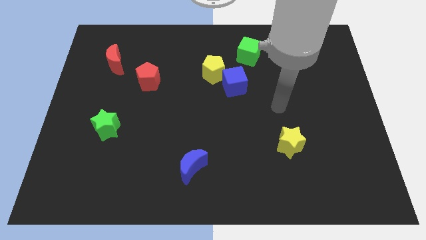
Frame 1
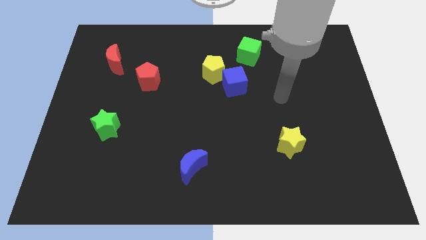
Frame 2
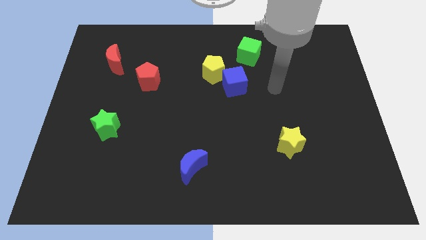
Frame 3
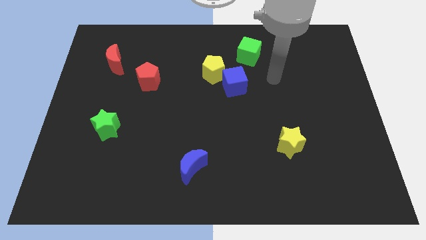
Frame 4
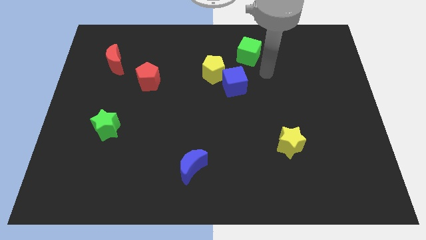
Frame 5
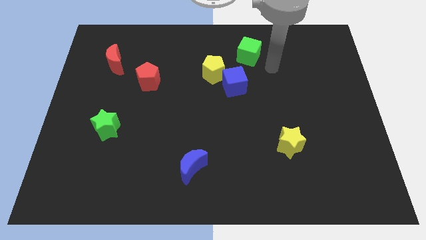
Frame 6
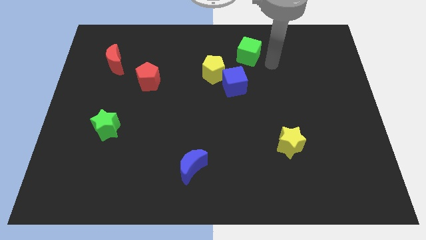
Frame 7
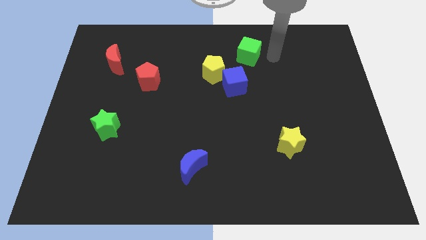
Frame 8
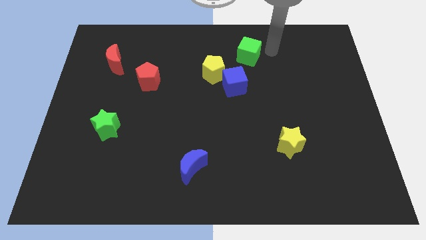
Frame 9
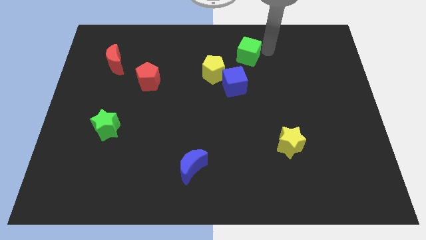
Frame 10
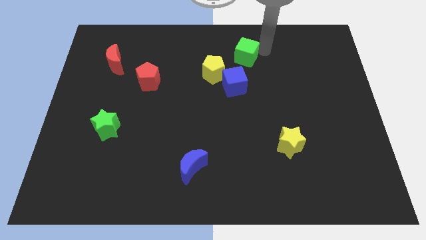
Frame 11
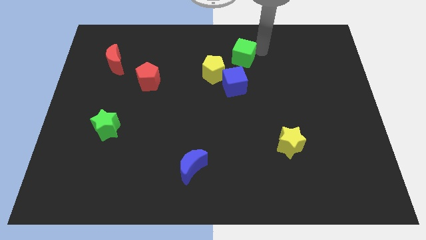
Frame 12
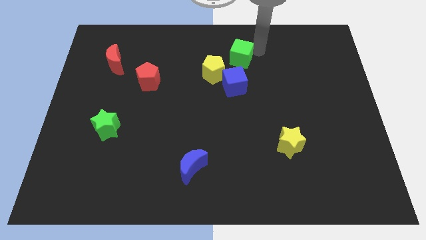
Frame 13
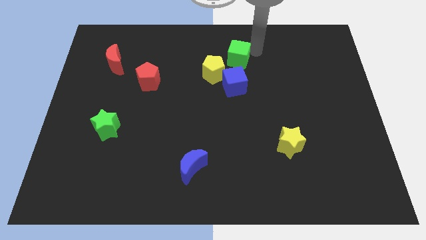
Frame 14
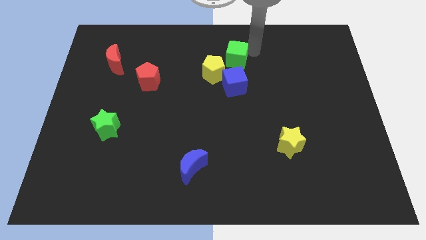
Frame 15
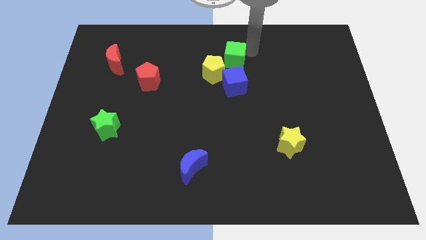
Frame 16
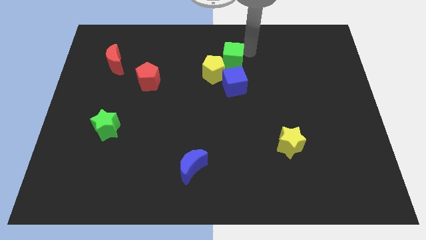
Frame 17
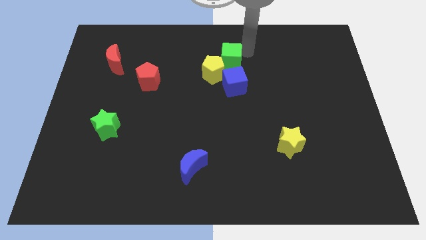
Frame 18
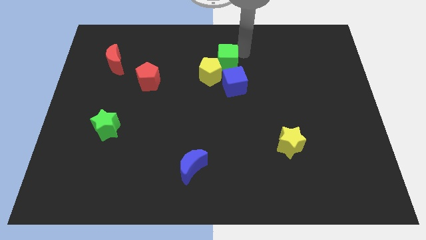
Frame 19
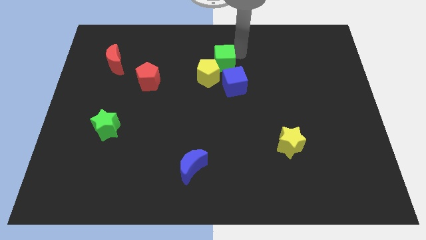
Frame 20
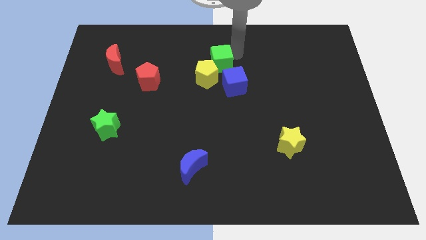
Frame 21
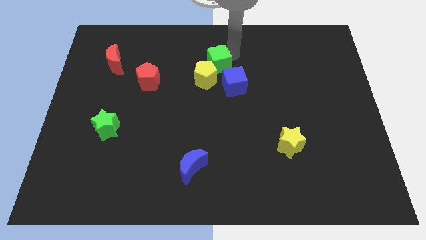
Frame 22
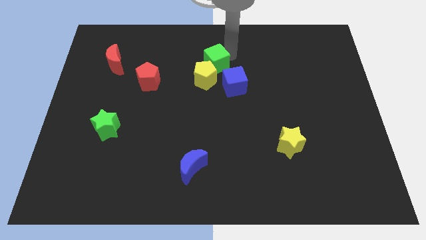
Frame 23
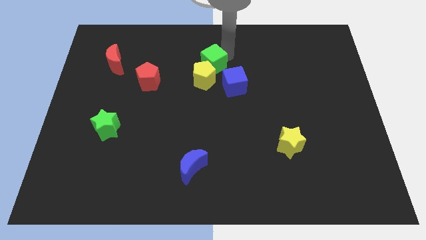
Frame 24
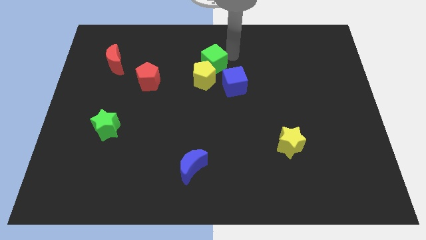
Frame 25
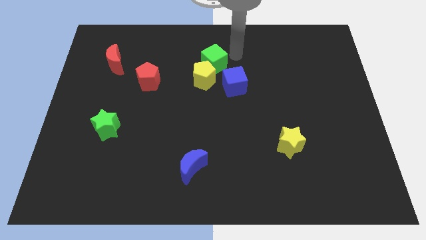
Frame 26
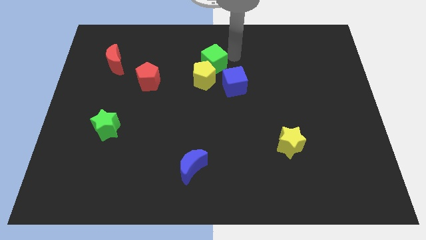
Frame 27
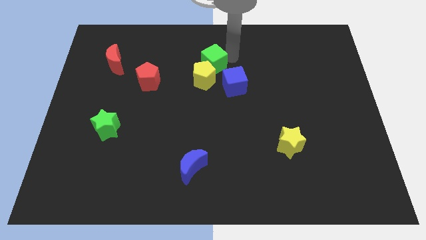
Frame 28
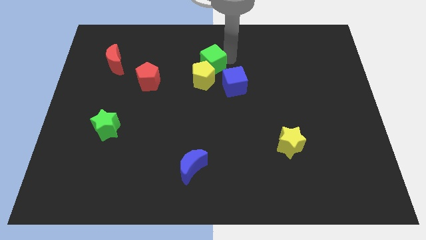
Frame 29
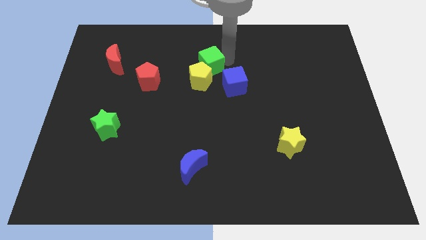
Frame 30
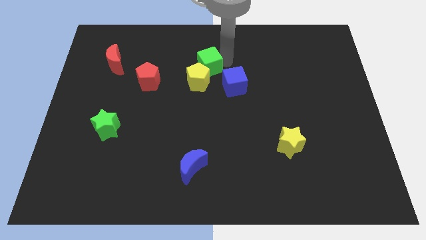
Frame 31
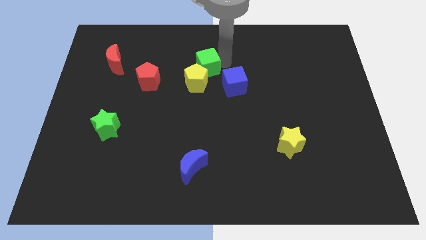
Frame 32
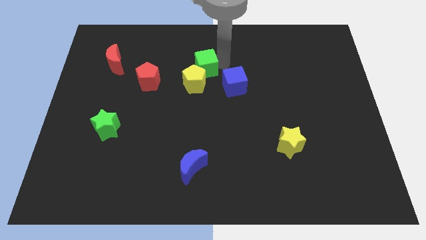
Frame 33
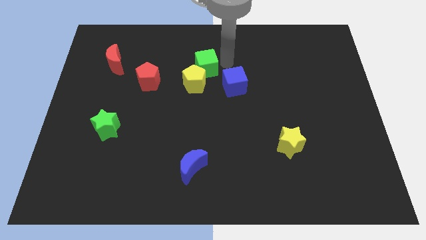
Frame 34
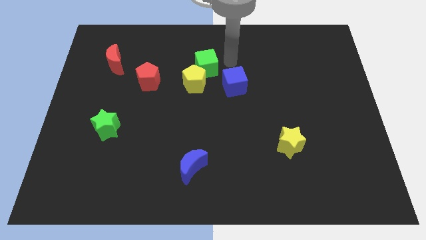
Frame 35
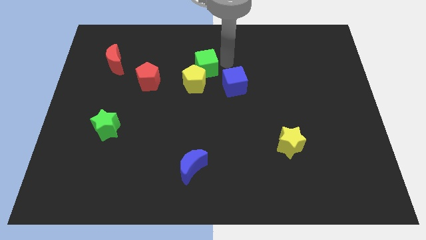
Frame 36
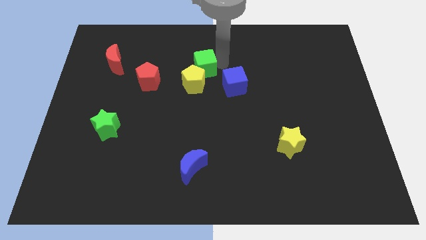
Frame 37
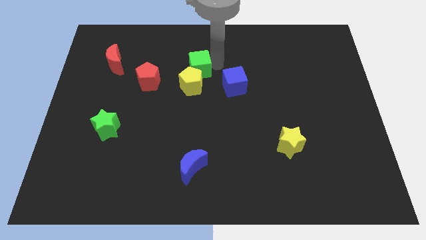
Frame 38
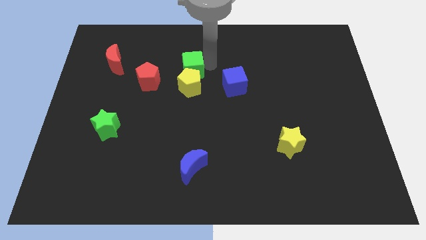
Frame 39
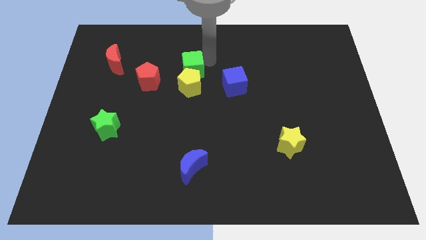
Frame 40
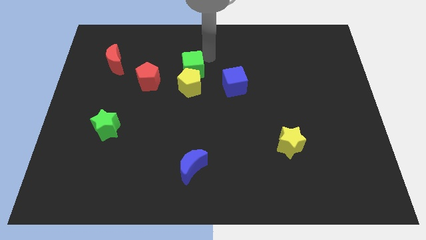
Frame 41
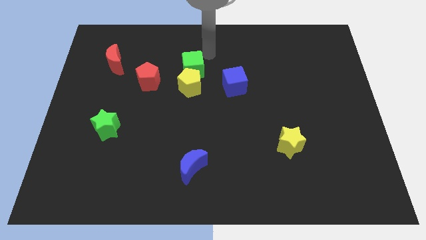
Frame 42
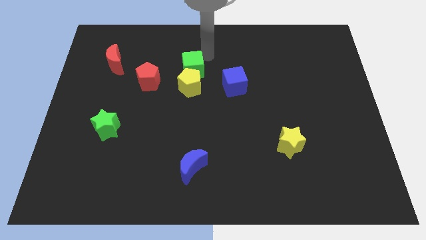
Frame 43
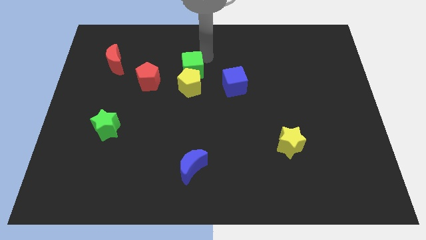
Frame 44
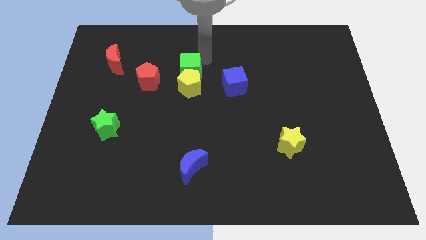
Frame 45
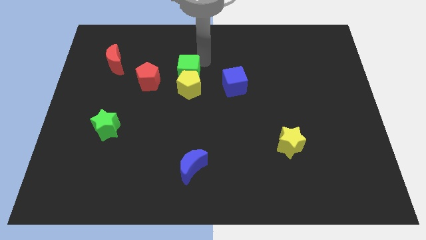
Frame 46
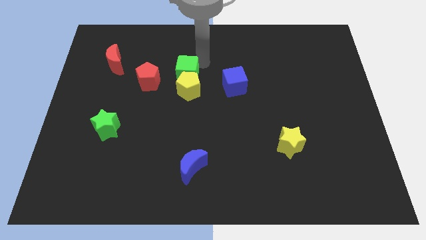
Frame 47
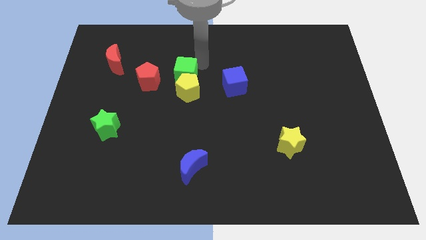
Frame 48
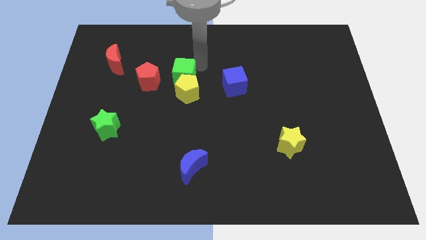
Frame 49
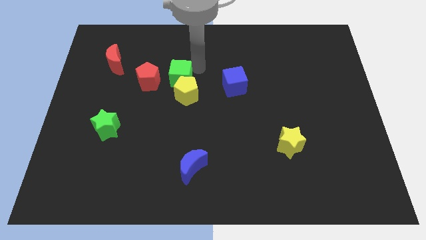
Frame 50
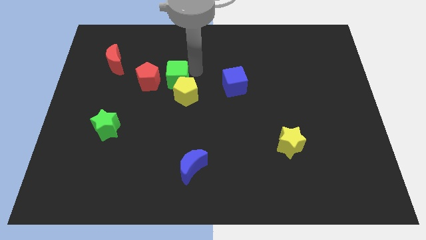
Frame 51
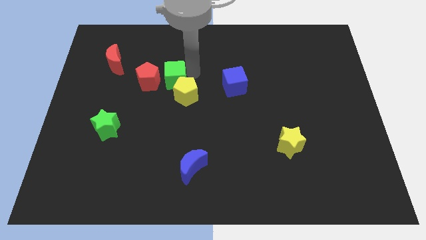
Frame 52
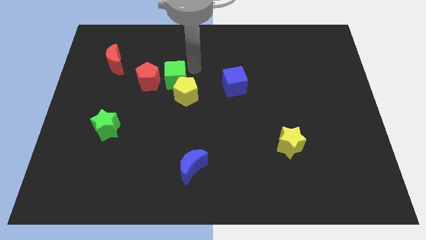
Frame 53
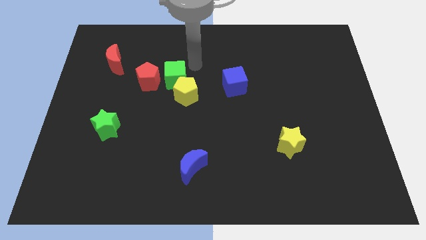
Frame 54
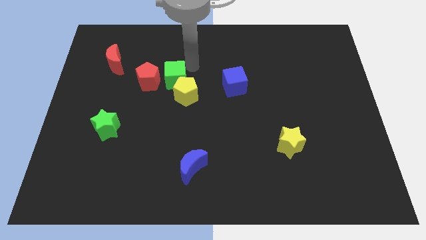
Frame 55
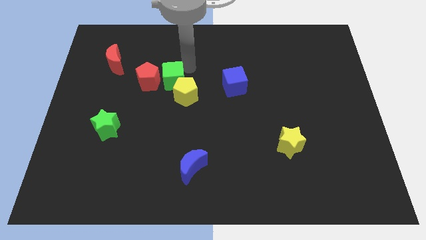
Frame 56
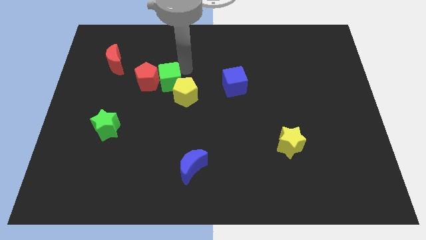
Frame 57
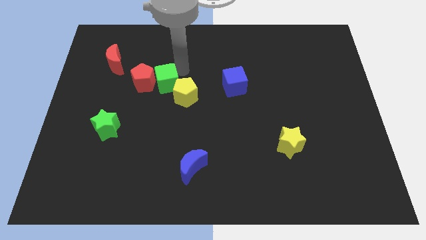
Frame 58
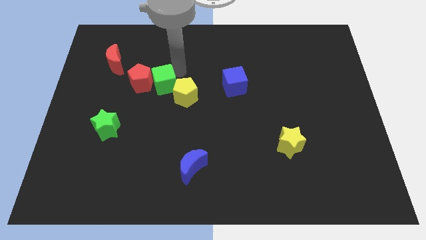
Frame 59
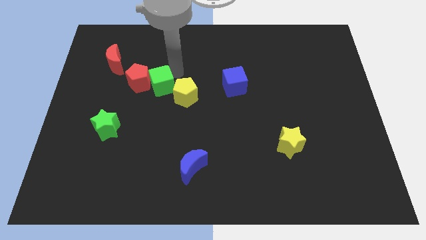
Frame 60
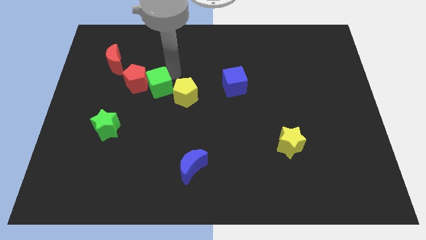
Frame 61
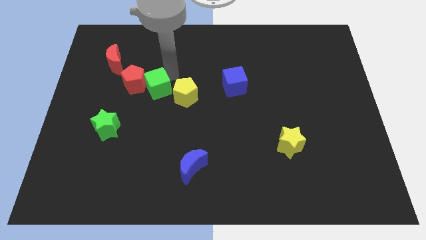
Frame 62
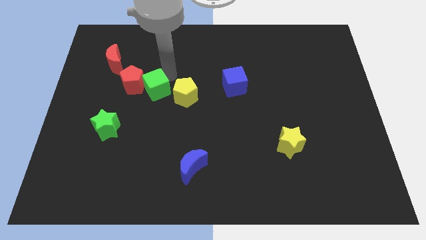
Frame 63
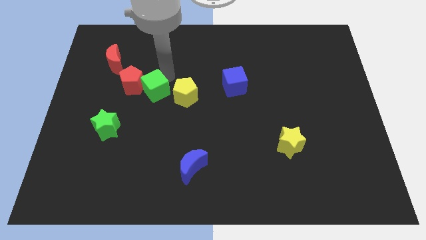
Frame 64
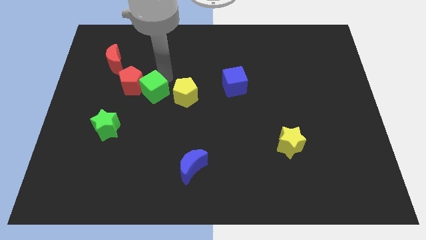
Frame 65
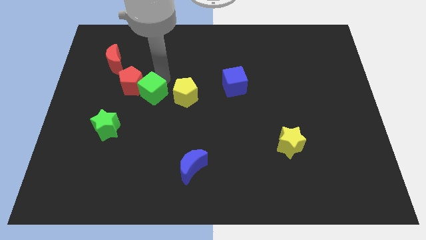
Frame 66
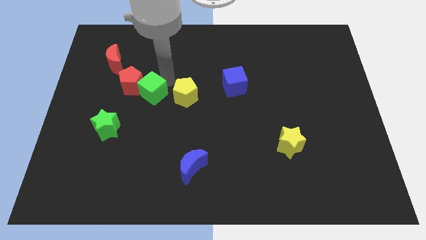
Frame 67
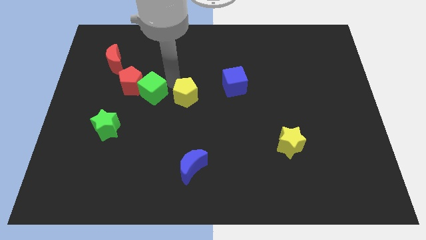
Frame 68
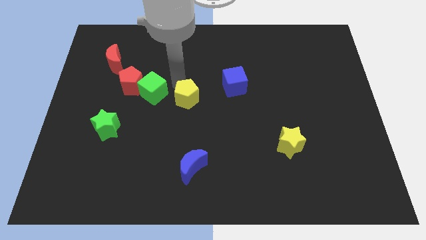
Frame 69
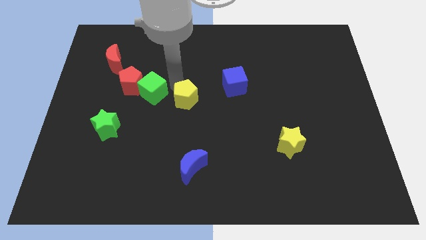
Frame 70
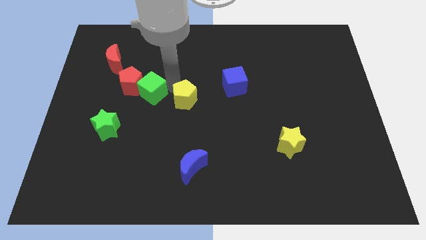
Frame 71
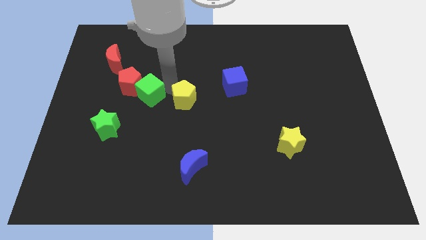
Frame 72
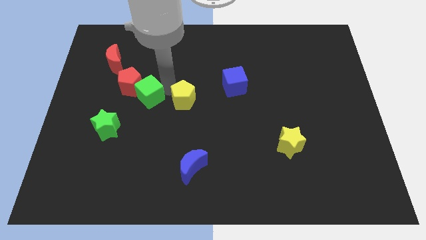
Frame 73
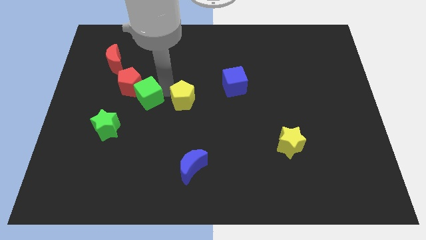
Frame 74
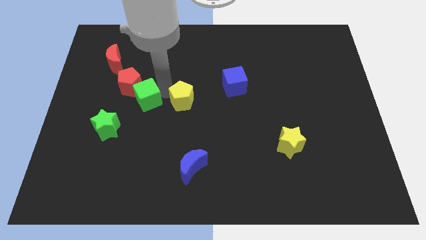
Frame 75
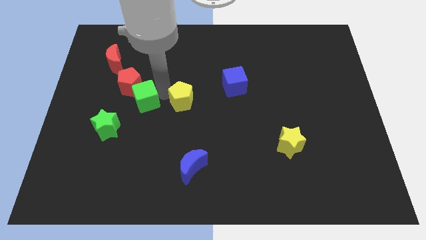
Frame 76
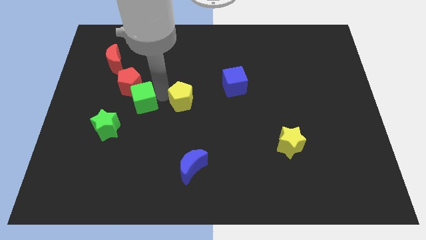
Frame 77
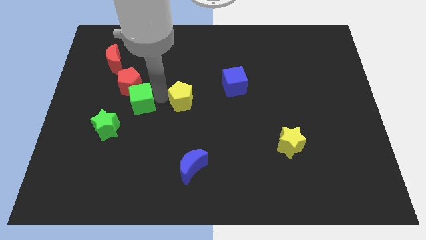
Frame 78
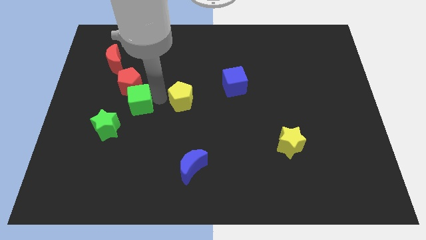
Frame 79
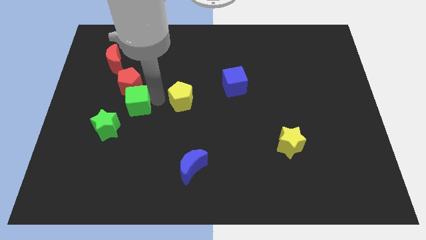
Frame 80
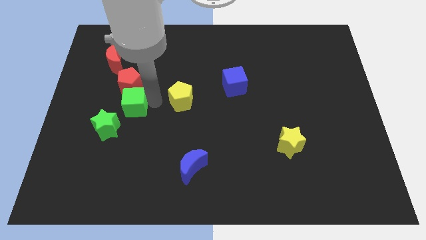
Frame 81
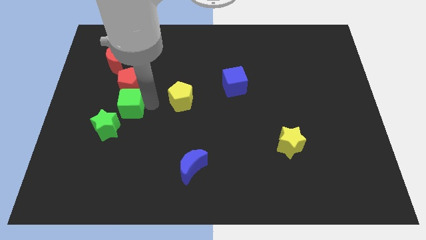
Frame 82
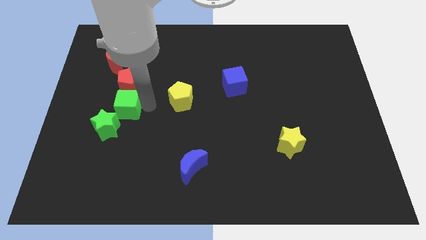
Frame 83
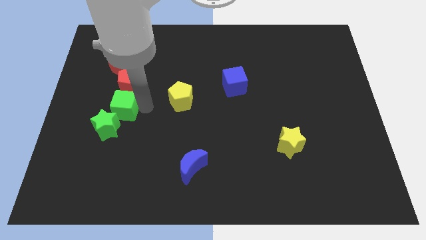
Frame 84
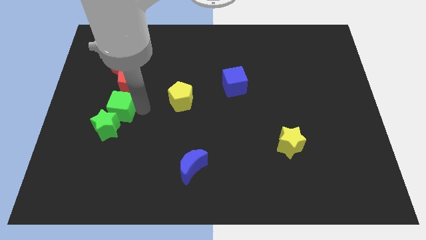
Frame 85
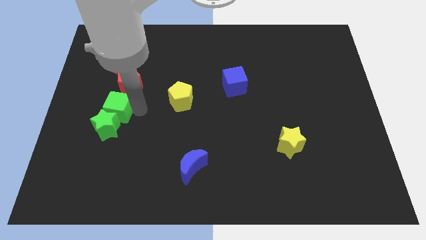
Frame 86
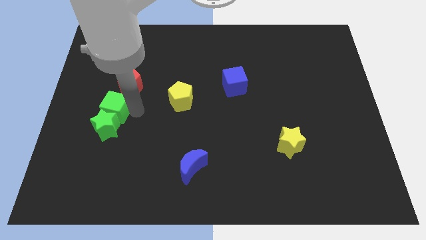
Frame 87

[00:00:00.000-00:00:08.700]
push the green cube below the red moon
